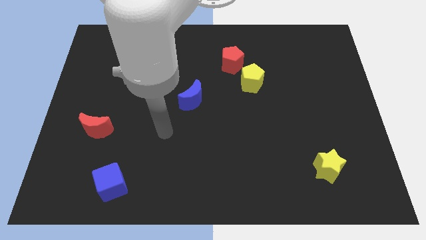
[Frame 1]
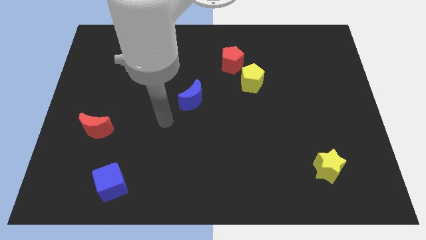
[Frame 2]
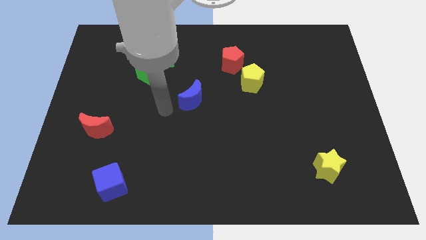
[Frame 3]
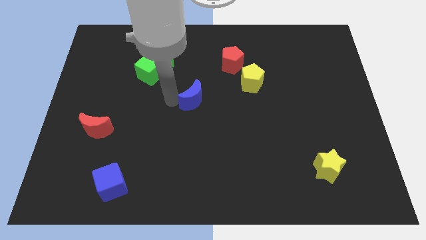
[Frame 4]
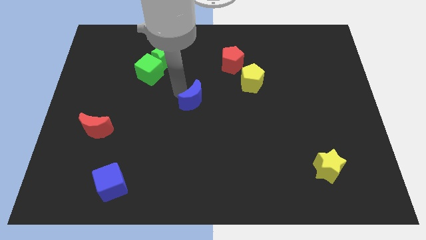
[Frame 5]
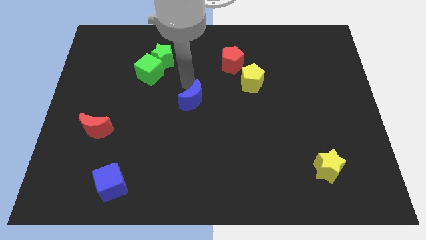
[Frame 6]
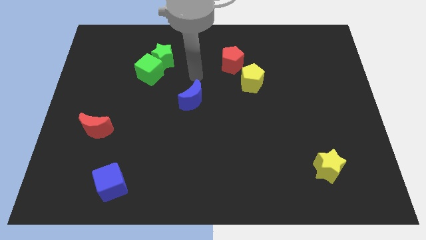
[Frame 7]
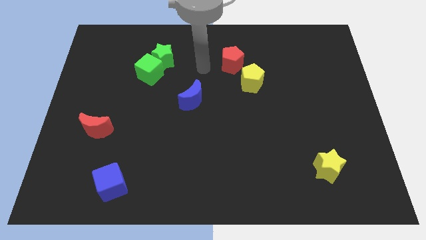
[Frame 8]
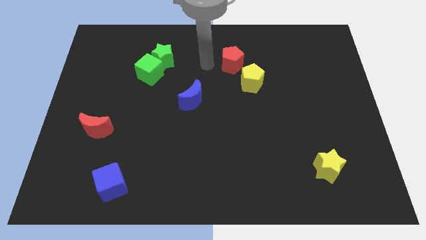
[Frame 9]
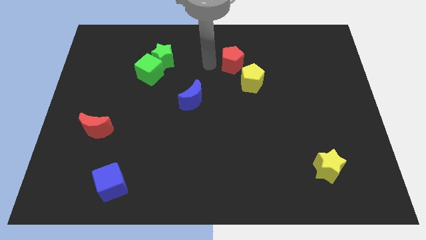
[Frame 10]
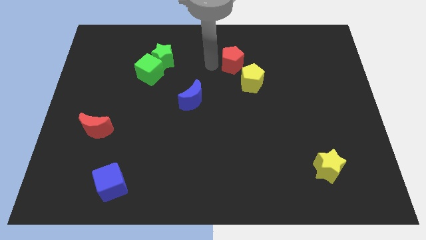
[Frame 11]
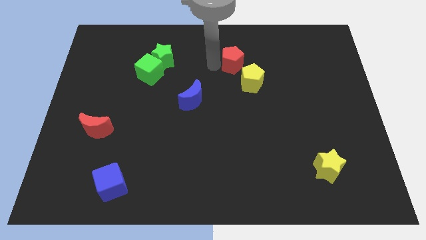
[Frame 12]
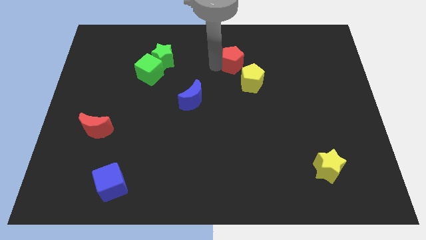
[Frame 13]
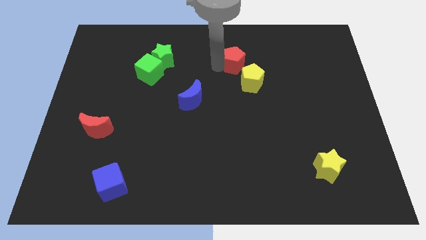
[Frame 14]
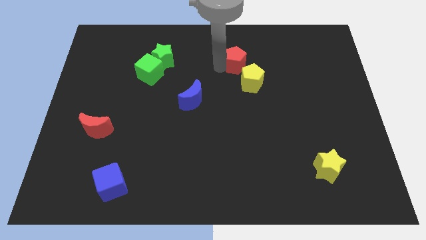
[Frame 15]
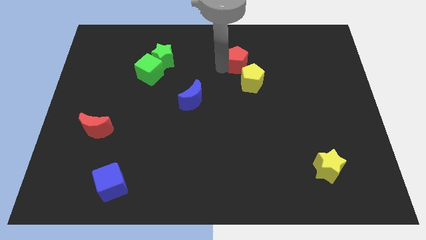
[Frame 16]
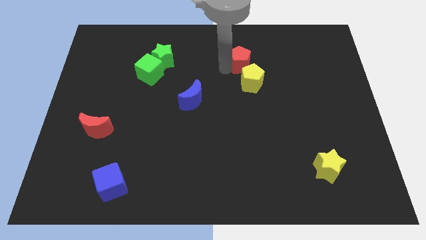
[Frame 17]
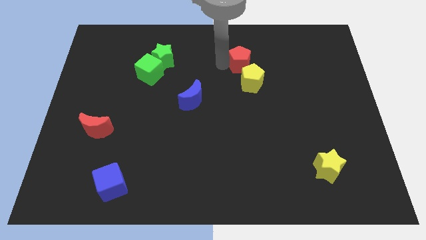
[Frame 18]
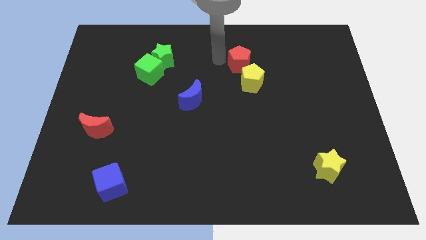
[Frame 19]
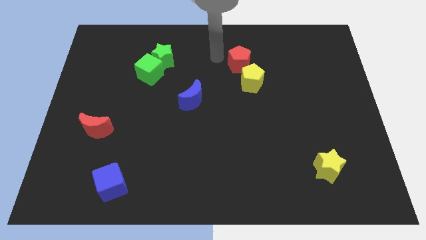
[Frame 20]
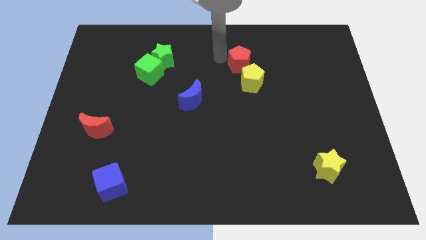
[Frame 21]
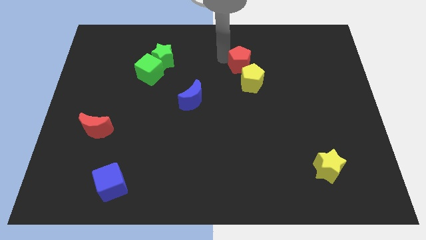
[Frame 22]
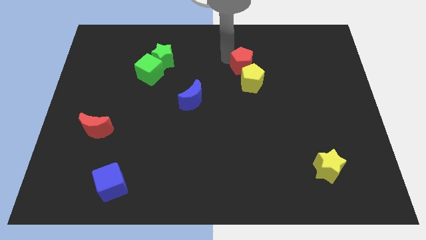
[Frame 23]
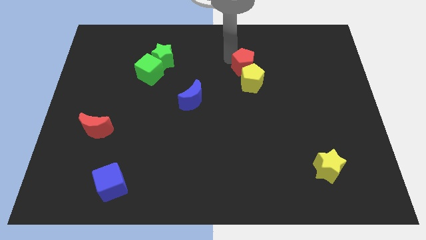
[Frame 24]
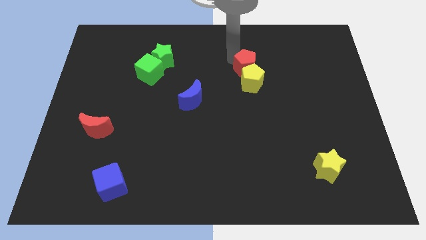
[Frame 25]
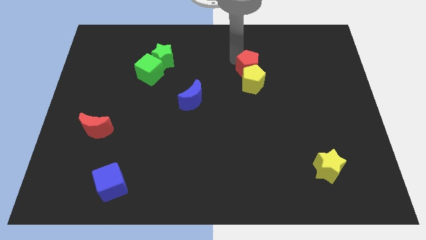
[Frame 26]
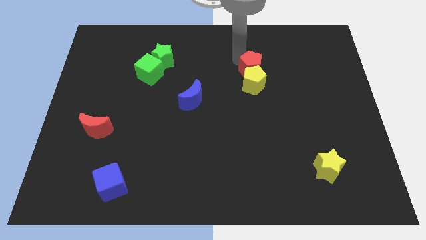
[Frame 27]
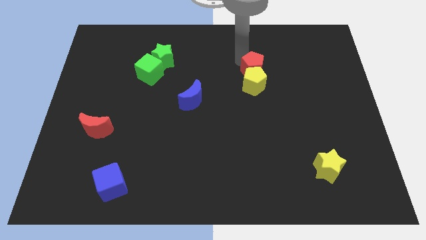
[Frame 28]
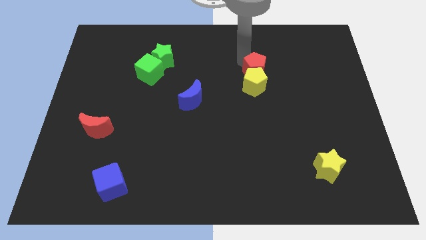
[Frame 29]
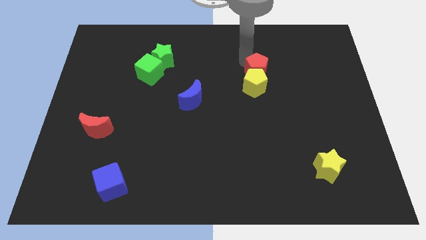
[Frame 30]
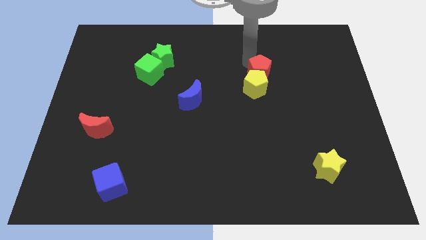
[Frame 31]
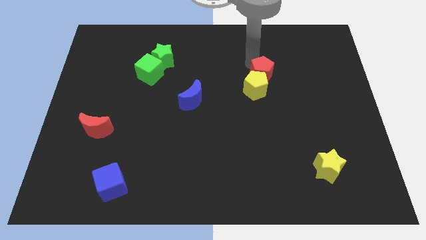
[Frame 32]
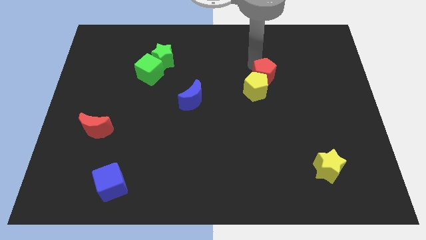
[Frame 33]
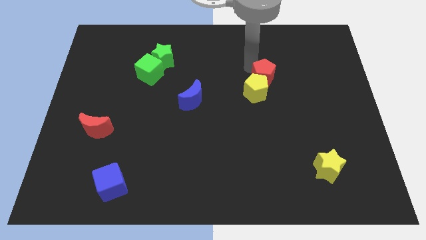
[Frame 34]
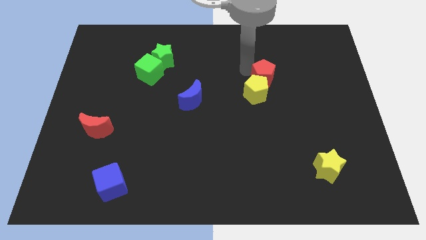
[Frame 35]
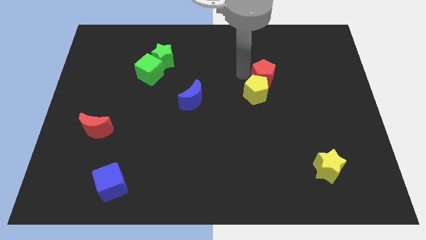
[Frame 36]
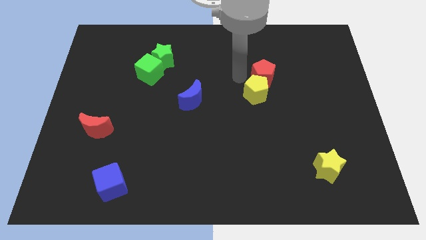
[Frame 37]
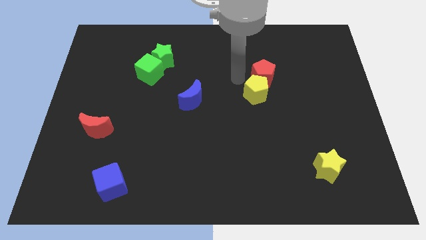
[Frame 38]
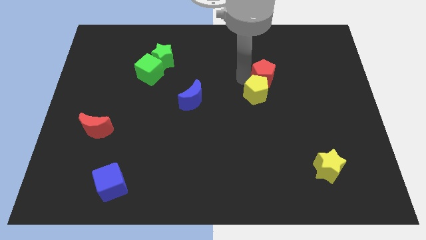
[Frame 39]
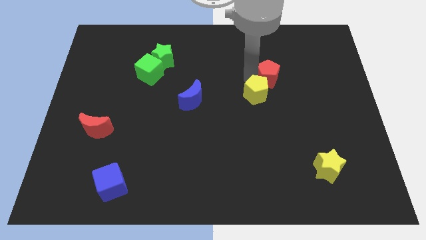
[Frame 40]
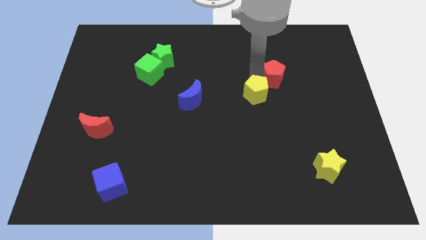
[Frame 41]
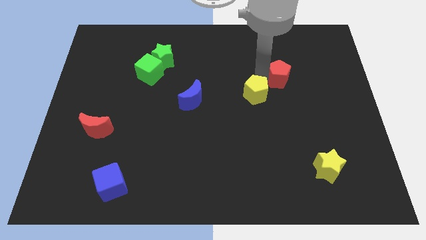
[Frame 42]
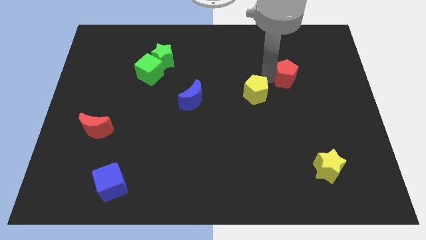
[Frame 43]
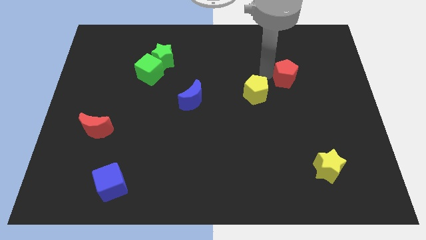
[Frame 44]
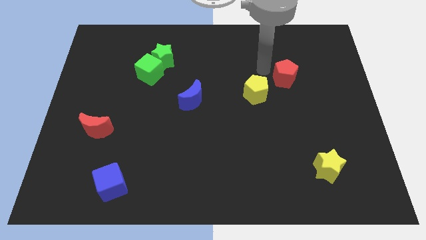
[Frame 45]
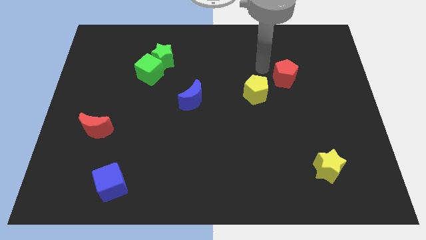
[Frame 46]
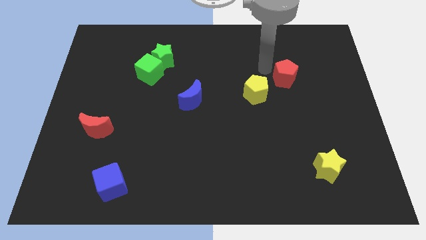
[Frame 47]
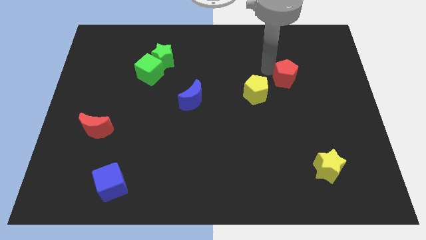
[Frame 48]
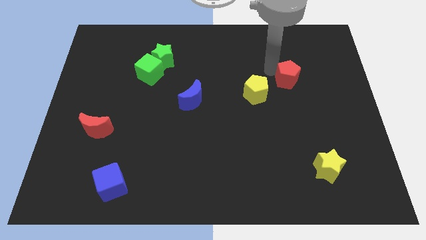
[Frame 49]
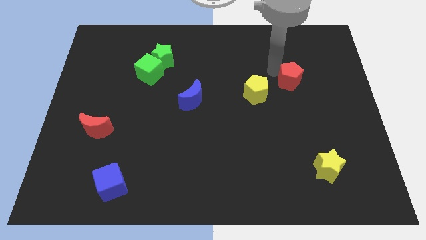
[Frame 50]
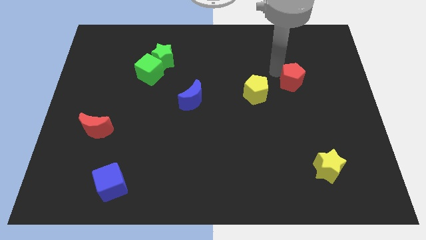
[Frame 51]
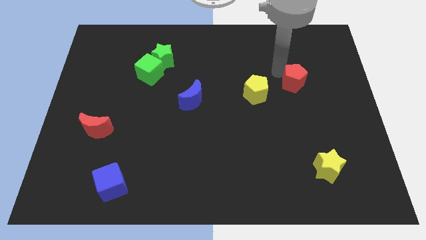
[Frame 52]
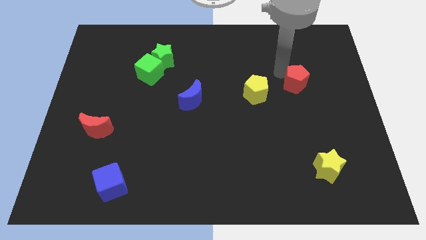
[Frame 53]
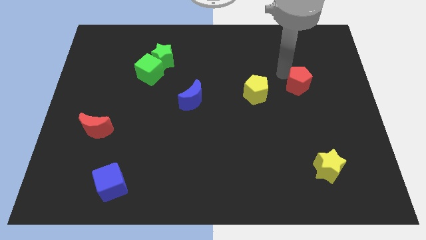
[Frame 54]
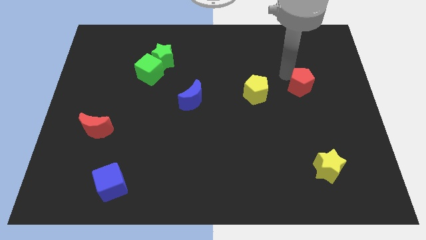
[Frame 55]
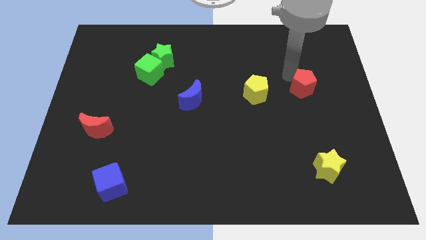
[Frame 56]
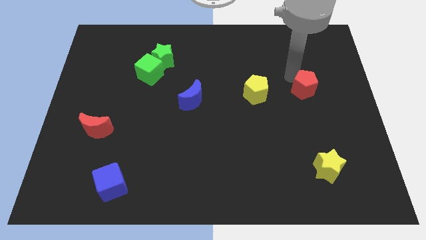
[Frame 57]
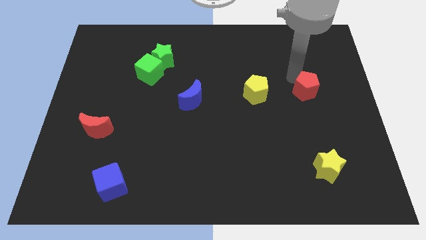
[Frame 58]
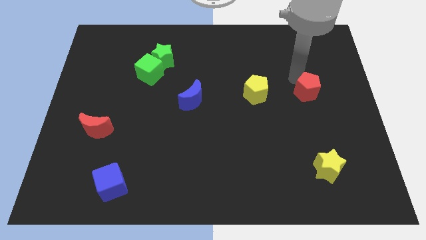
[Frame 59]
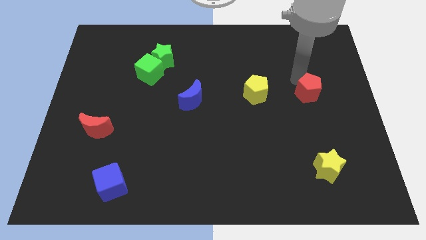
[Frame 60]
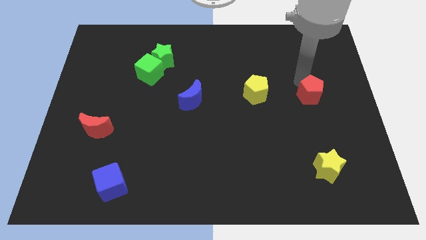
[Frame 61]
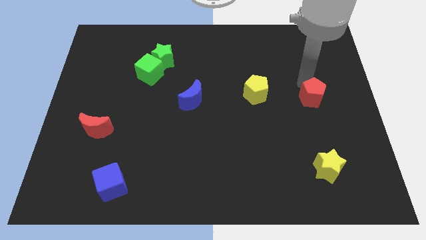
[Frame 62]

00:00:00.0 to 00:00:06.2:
move the red pentagon diagonally down and right

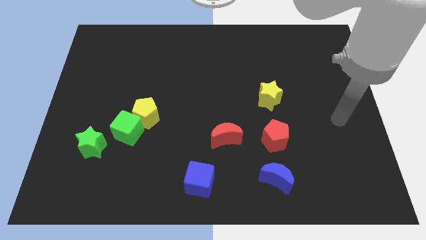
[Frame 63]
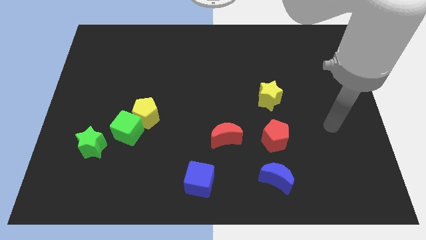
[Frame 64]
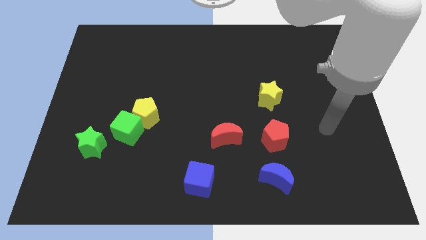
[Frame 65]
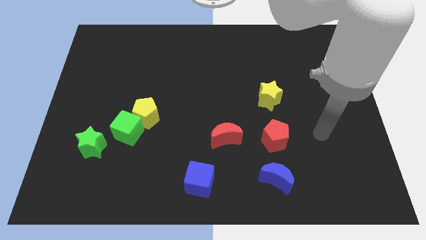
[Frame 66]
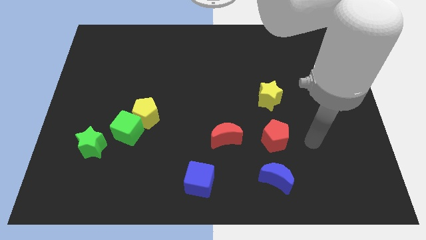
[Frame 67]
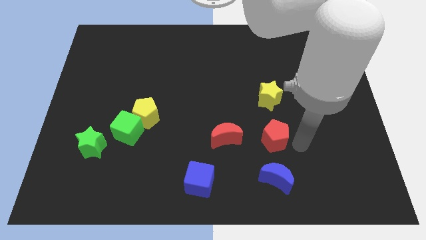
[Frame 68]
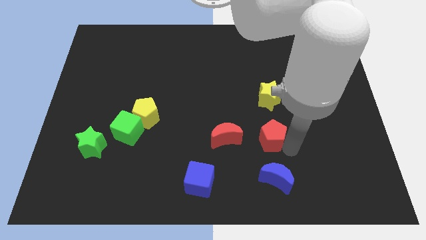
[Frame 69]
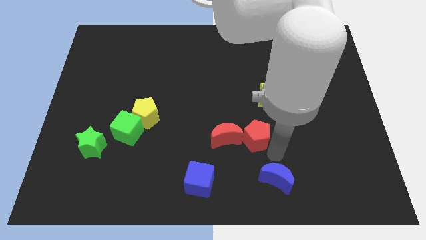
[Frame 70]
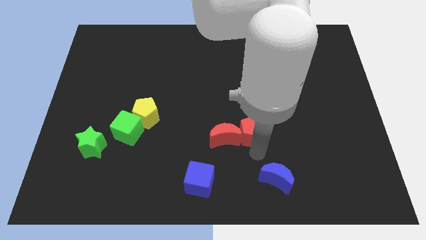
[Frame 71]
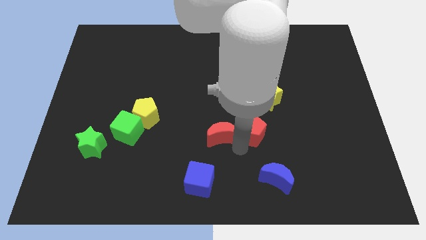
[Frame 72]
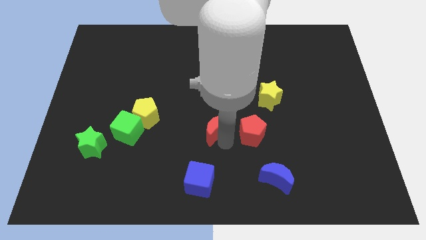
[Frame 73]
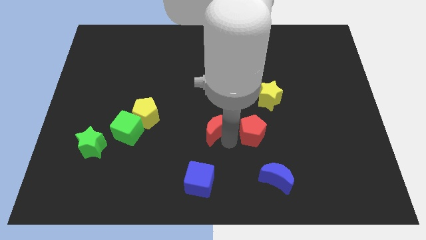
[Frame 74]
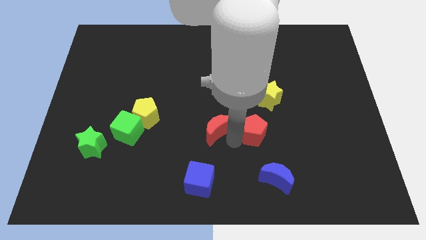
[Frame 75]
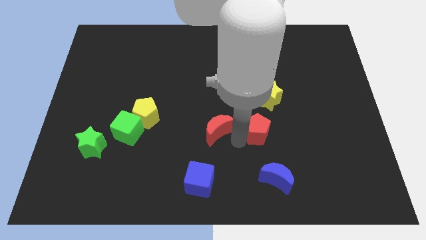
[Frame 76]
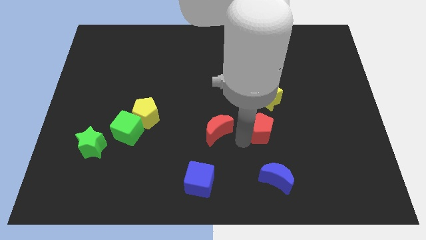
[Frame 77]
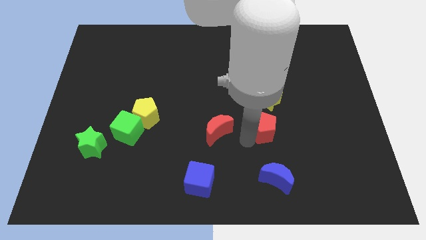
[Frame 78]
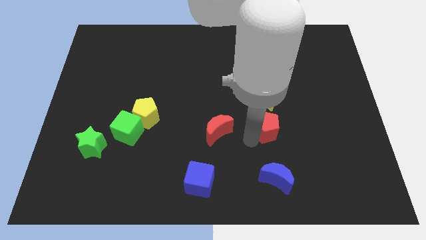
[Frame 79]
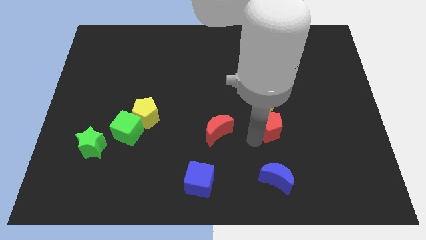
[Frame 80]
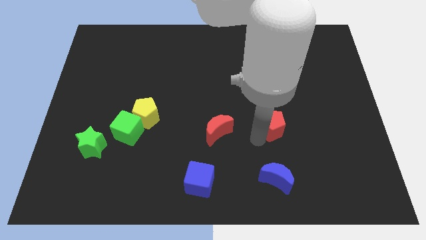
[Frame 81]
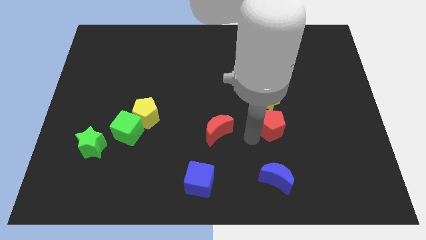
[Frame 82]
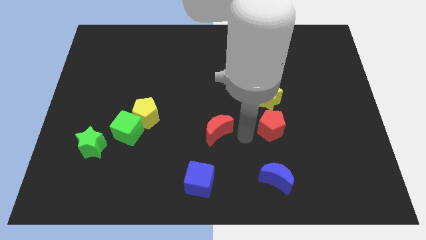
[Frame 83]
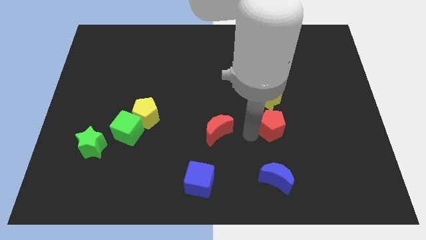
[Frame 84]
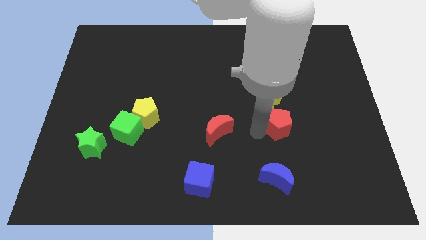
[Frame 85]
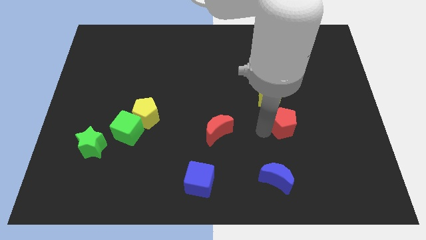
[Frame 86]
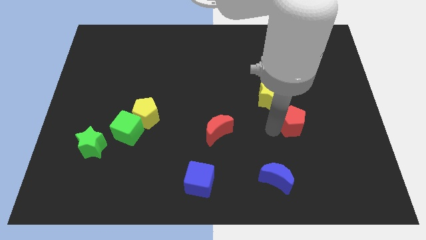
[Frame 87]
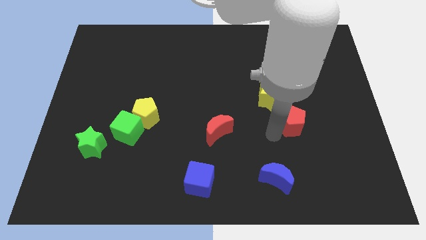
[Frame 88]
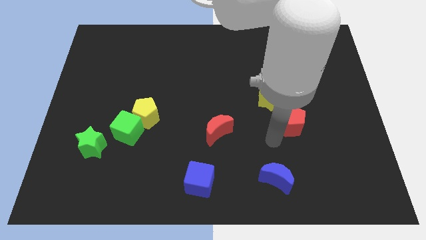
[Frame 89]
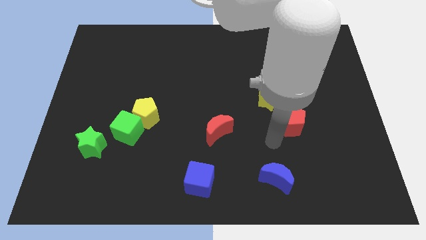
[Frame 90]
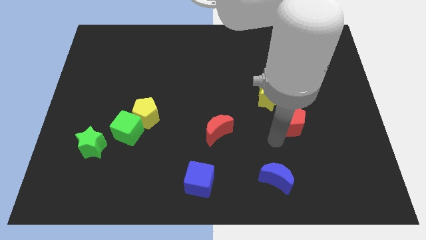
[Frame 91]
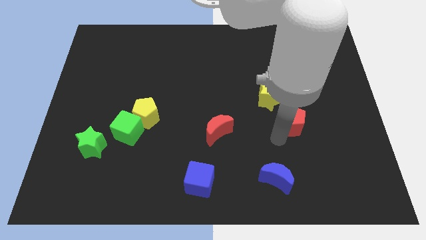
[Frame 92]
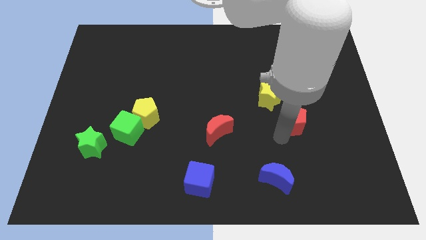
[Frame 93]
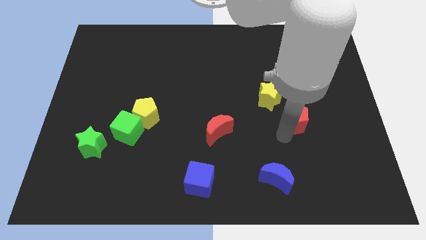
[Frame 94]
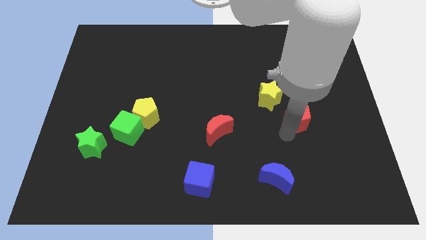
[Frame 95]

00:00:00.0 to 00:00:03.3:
slightly push the red pentagon upwards and right
